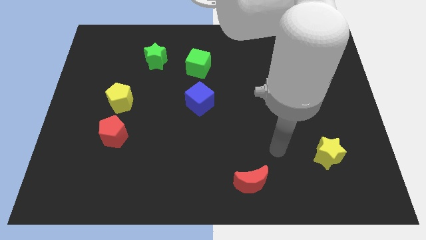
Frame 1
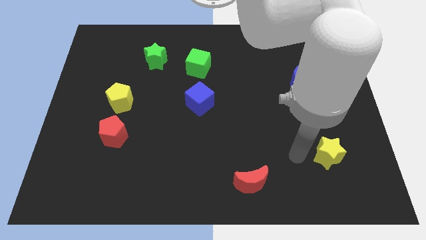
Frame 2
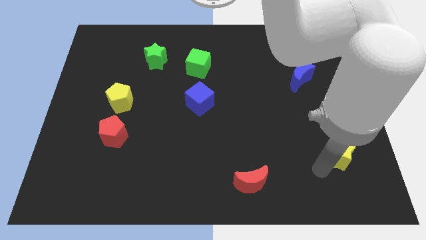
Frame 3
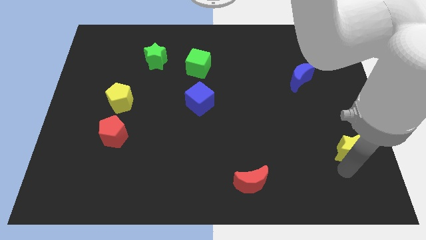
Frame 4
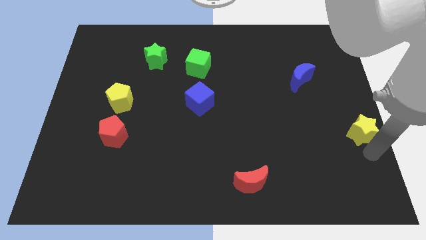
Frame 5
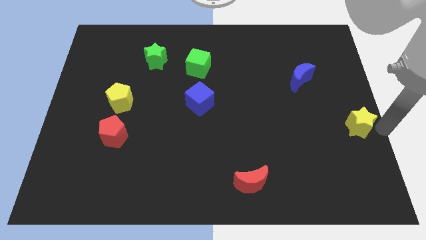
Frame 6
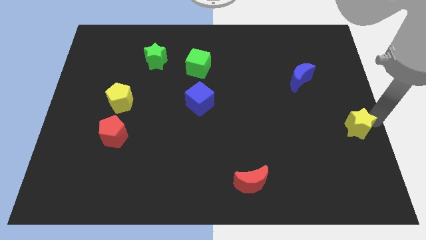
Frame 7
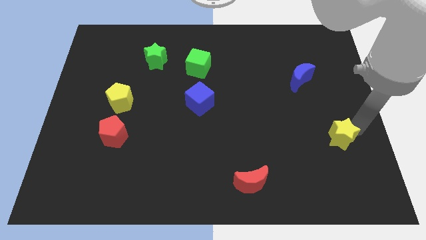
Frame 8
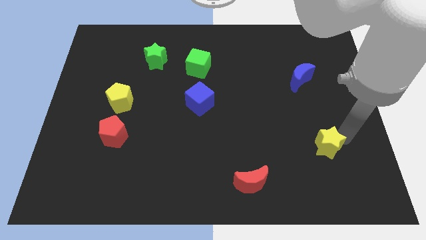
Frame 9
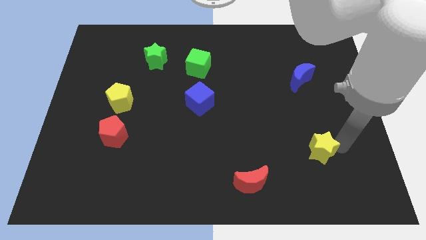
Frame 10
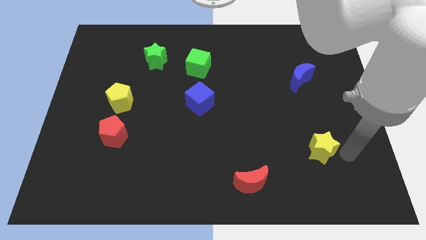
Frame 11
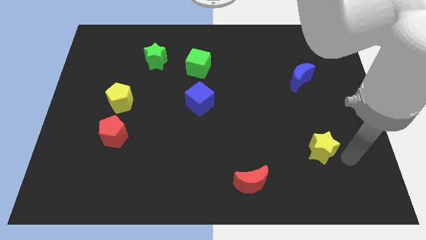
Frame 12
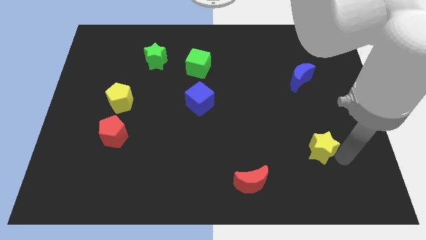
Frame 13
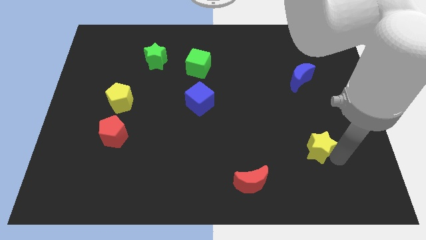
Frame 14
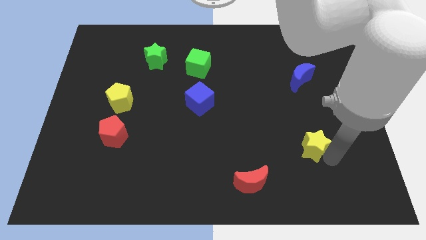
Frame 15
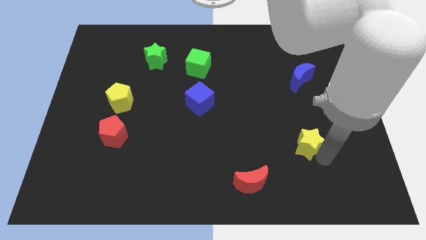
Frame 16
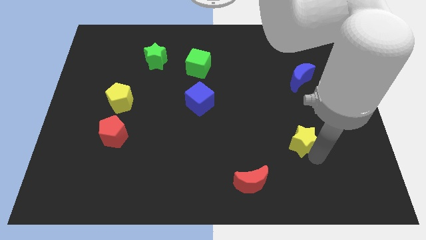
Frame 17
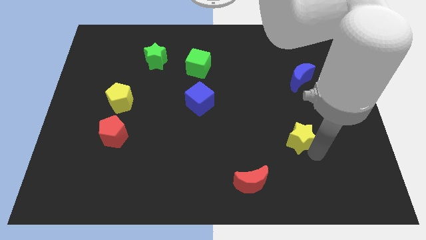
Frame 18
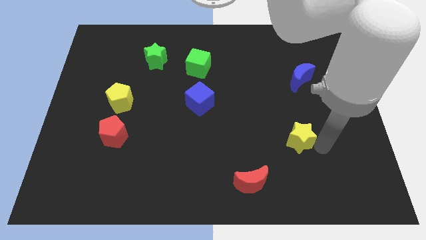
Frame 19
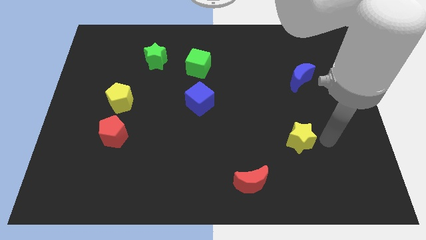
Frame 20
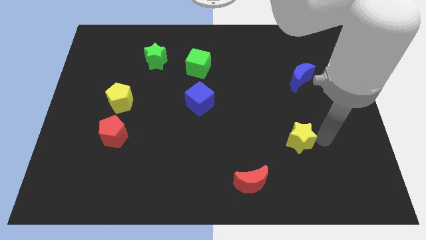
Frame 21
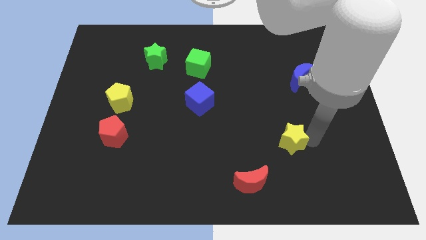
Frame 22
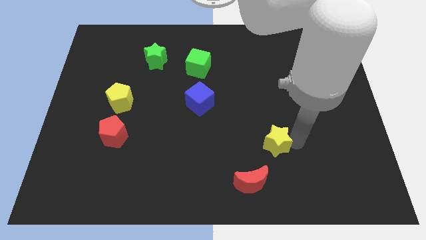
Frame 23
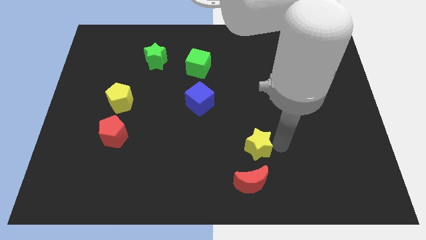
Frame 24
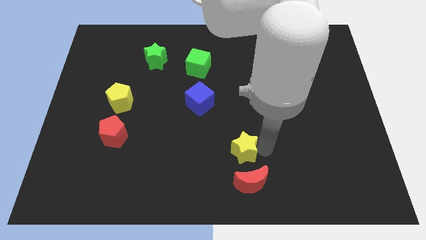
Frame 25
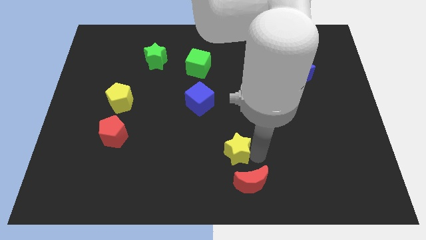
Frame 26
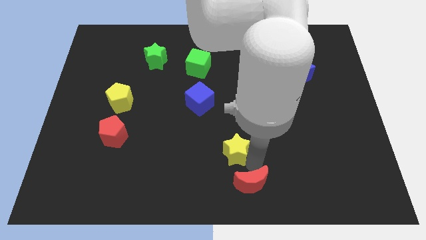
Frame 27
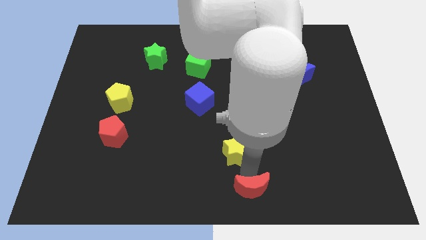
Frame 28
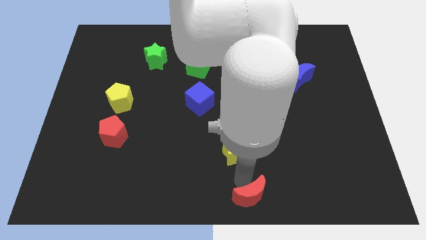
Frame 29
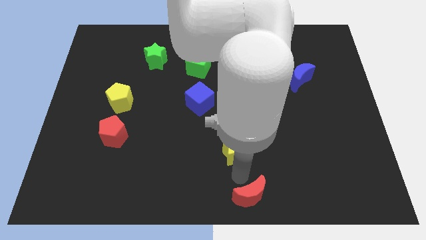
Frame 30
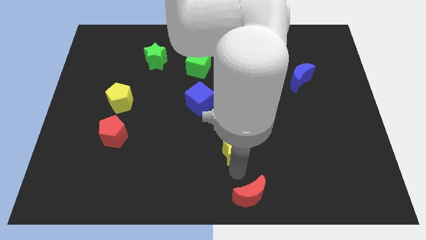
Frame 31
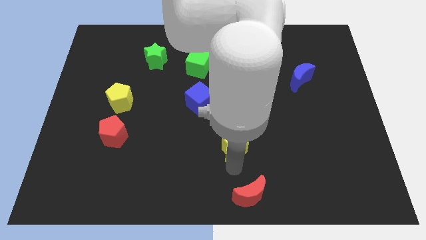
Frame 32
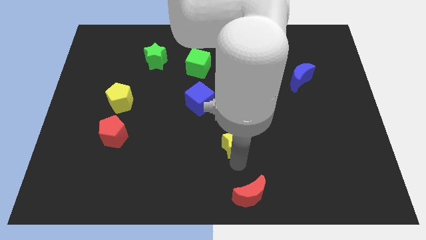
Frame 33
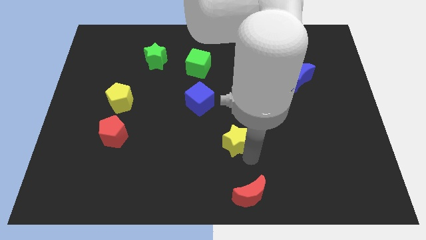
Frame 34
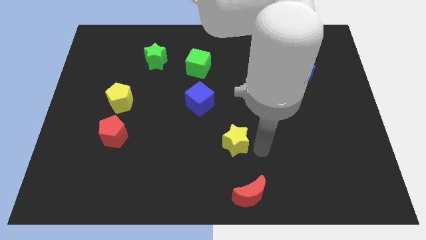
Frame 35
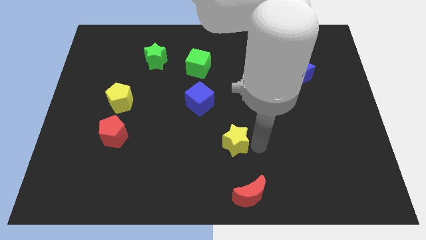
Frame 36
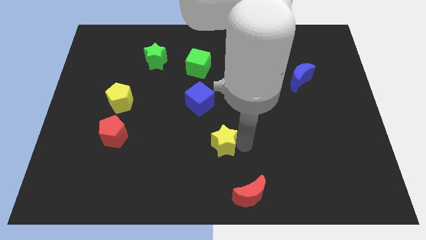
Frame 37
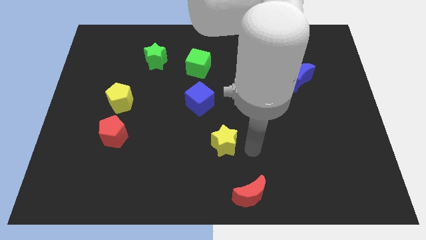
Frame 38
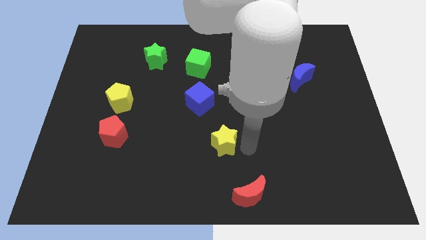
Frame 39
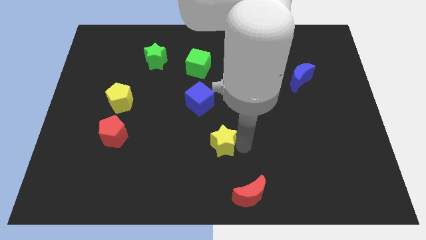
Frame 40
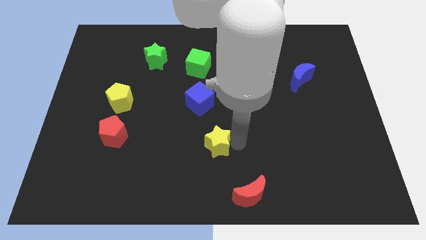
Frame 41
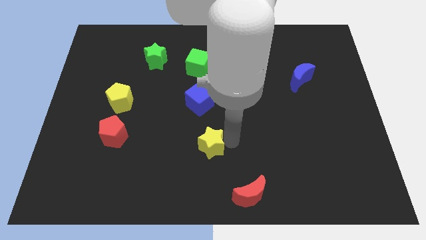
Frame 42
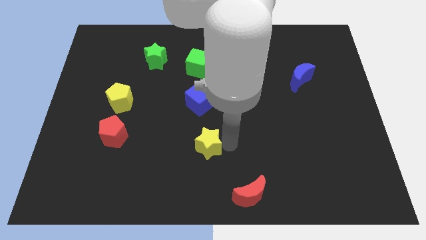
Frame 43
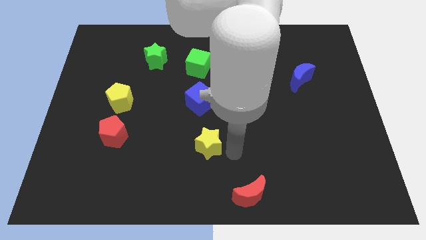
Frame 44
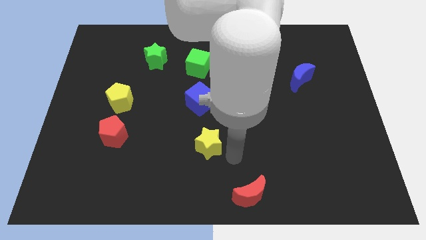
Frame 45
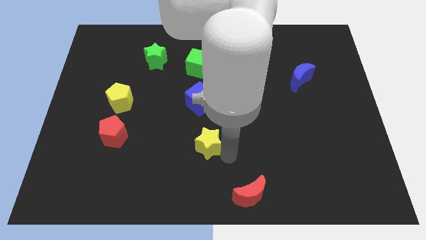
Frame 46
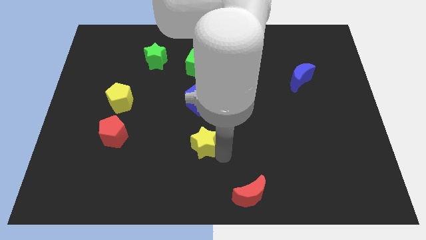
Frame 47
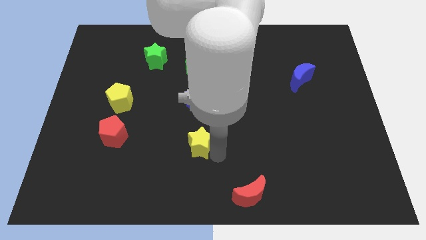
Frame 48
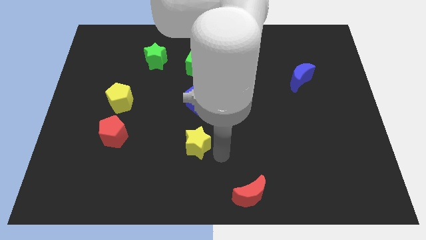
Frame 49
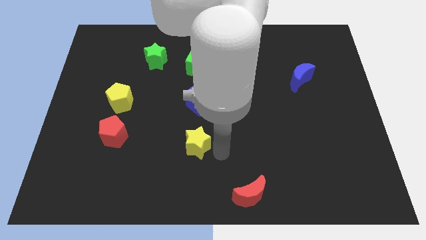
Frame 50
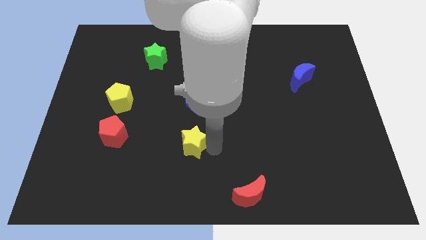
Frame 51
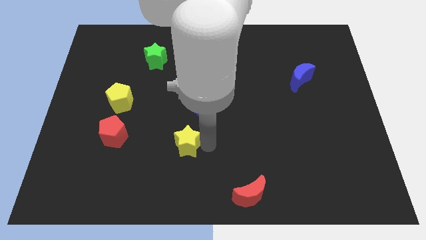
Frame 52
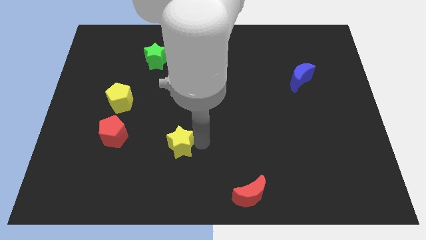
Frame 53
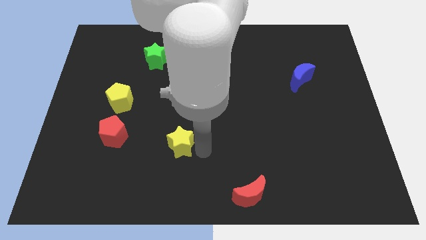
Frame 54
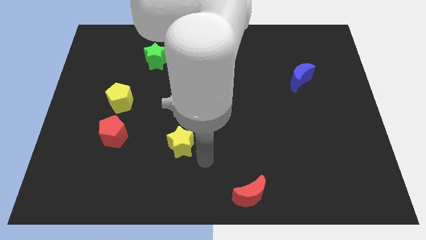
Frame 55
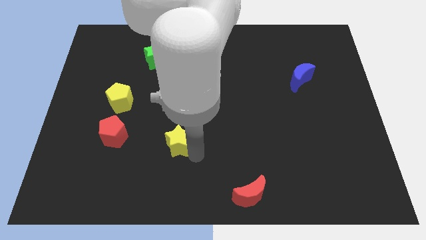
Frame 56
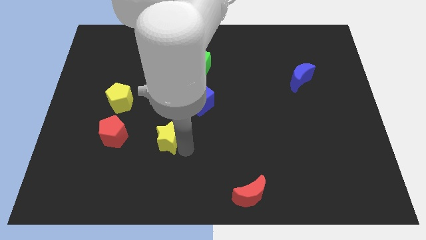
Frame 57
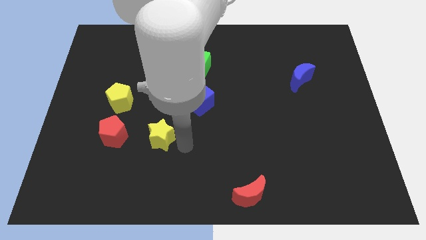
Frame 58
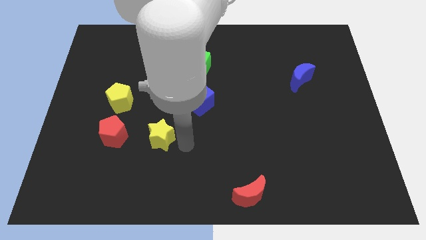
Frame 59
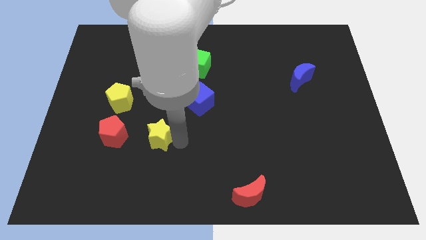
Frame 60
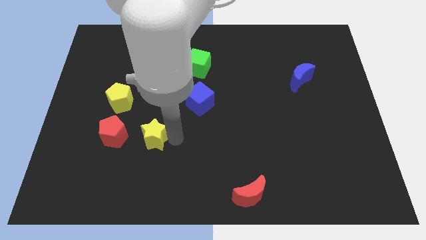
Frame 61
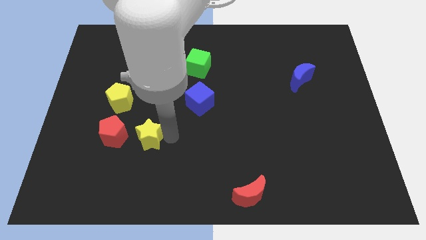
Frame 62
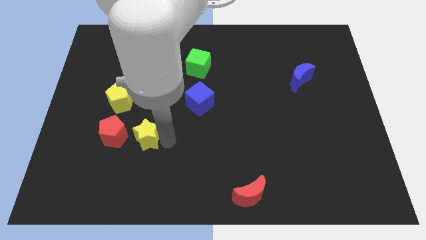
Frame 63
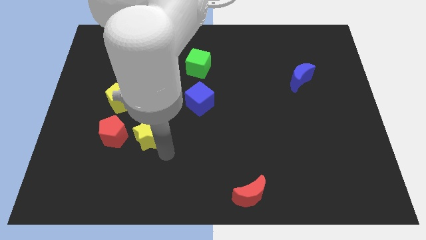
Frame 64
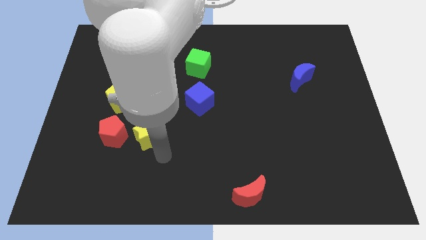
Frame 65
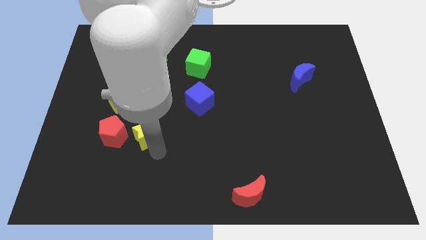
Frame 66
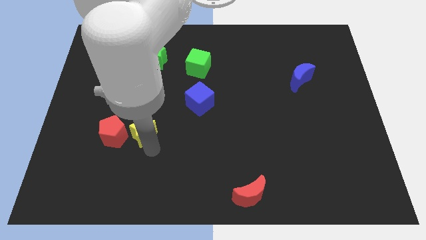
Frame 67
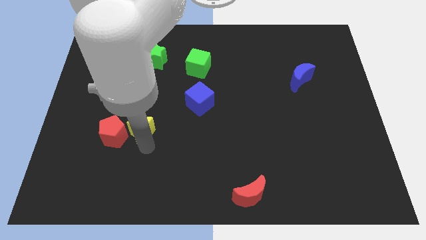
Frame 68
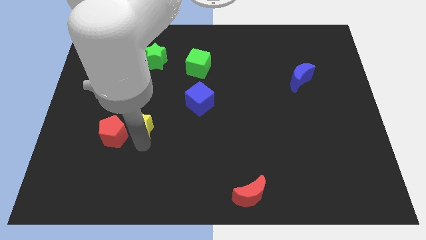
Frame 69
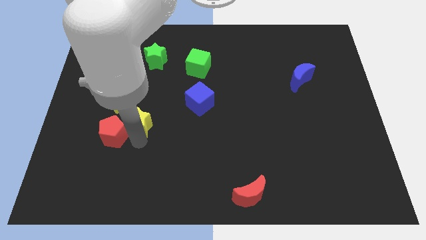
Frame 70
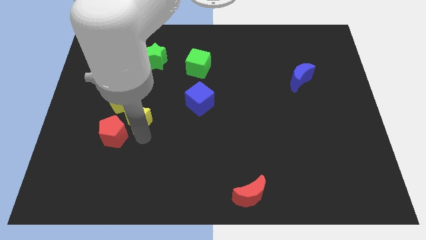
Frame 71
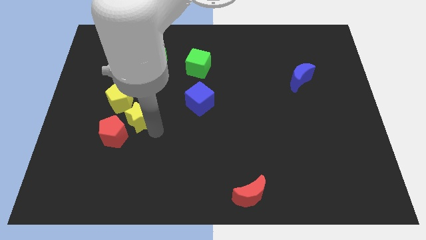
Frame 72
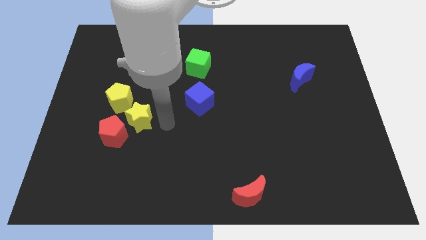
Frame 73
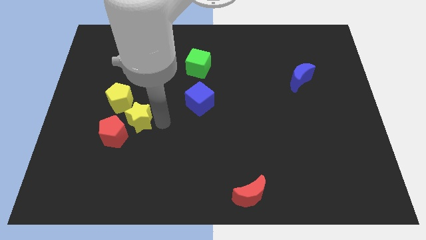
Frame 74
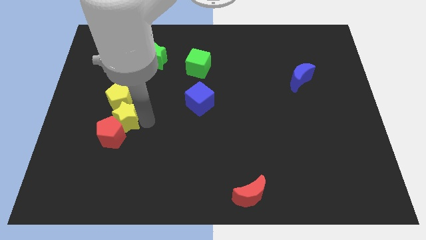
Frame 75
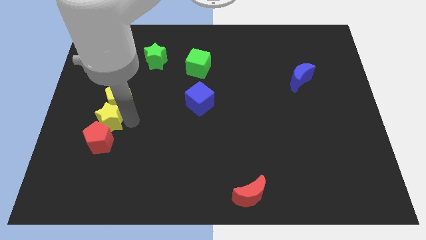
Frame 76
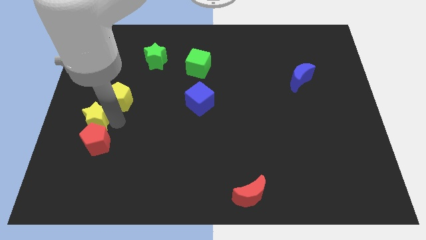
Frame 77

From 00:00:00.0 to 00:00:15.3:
push the yellow star to the left side of the board
